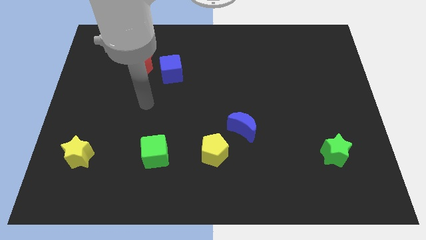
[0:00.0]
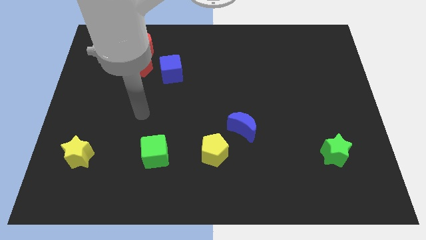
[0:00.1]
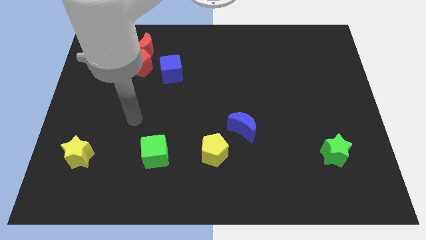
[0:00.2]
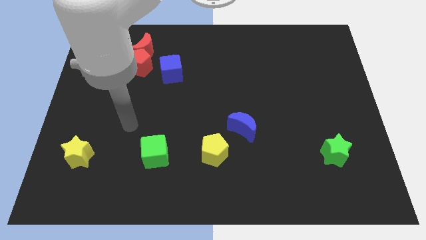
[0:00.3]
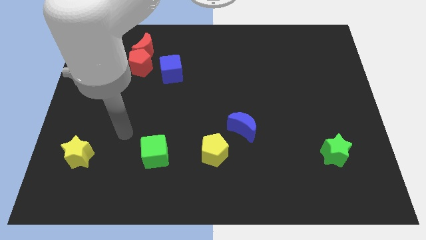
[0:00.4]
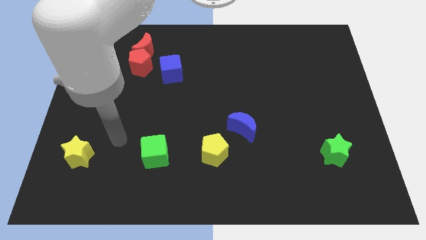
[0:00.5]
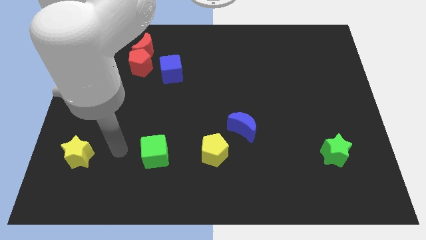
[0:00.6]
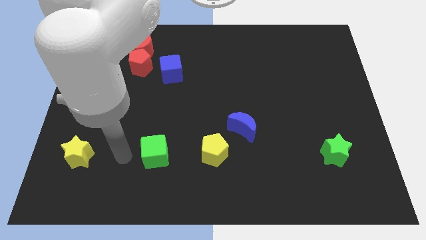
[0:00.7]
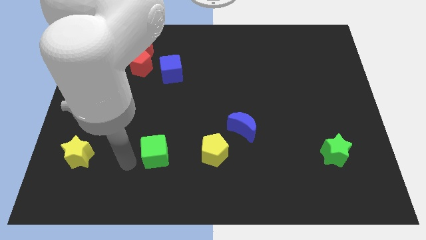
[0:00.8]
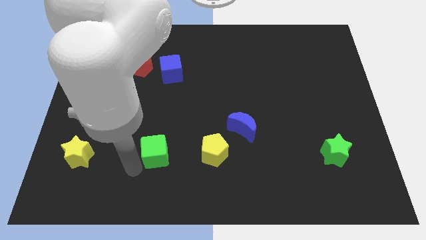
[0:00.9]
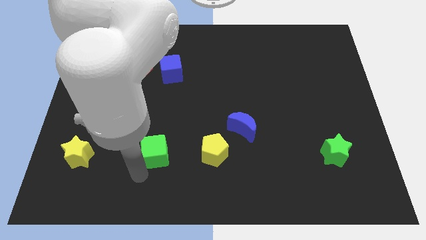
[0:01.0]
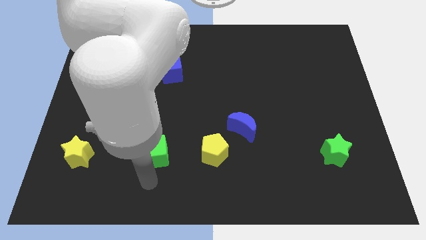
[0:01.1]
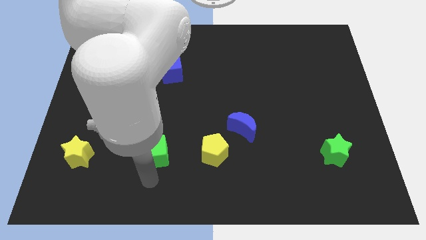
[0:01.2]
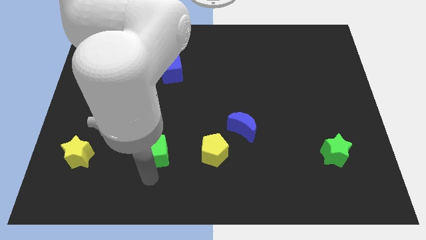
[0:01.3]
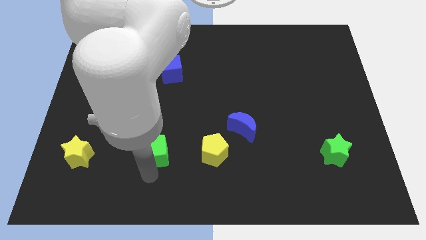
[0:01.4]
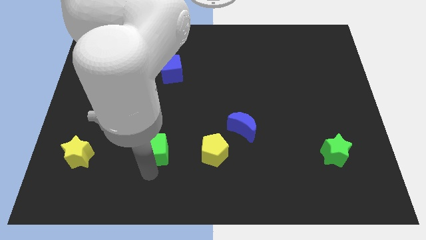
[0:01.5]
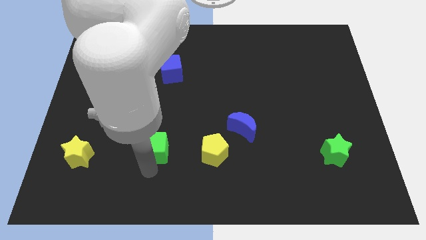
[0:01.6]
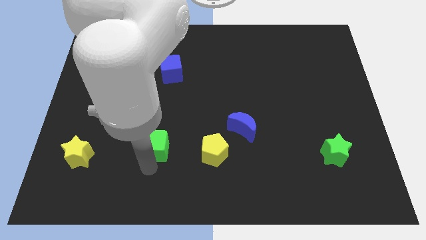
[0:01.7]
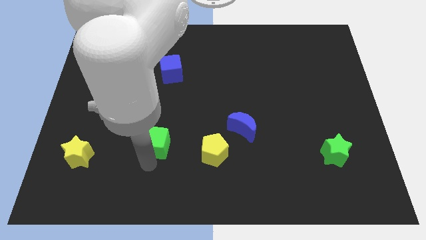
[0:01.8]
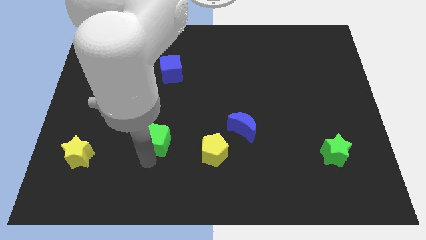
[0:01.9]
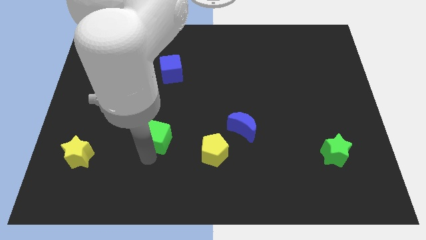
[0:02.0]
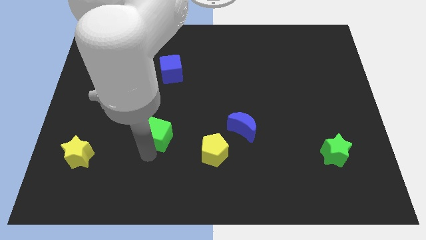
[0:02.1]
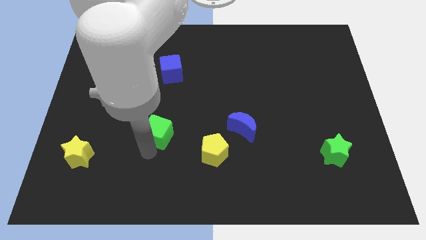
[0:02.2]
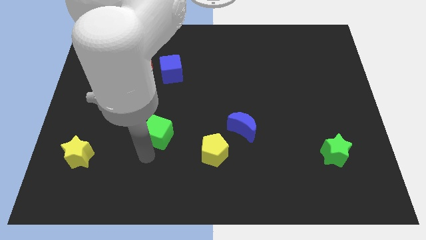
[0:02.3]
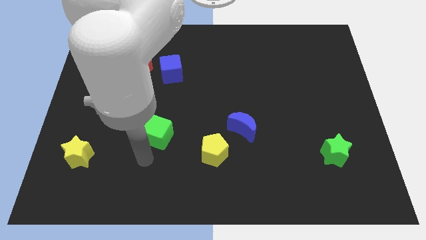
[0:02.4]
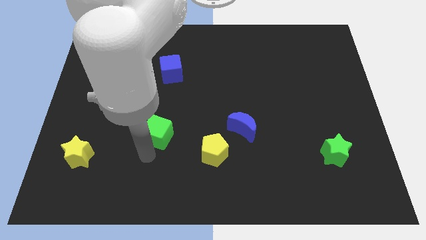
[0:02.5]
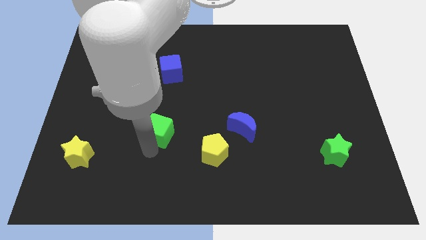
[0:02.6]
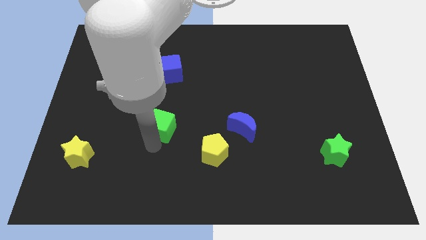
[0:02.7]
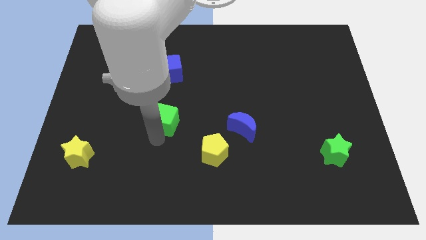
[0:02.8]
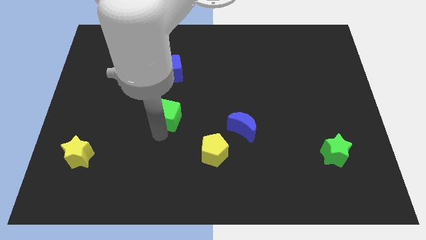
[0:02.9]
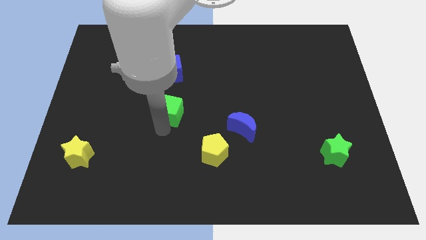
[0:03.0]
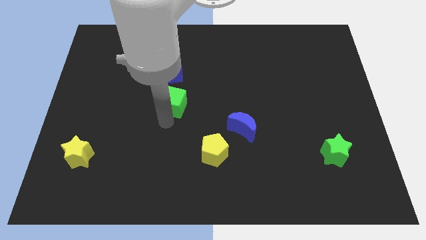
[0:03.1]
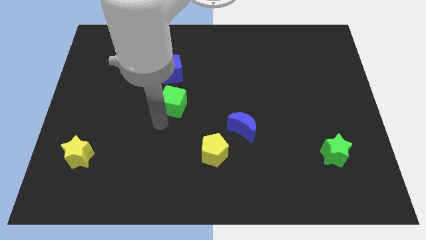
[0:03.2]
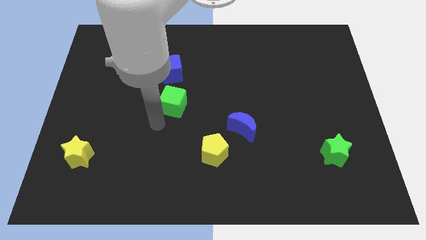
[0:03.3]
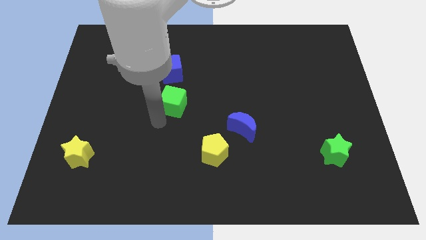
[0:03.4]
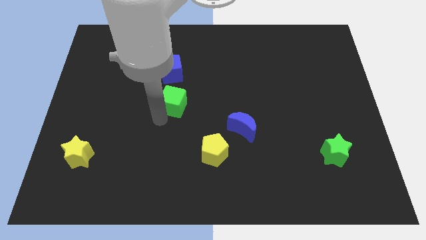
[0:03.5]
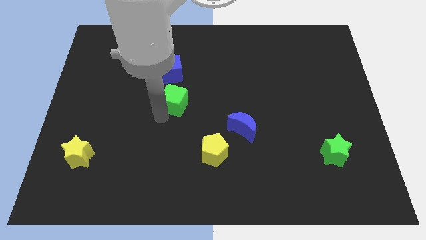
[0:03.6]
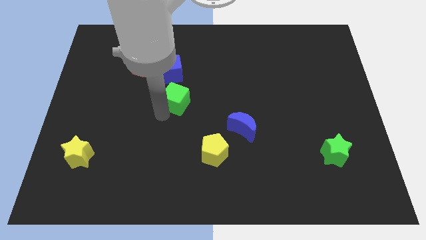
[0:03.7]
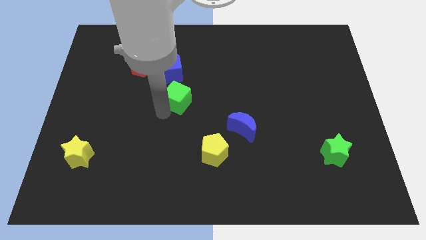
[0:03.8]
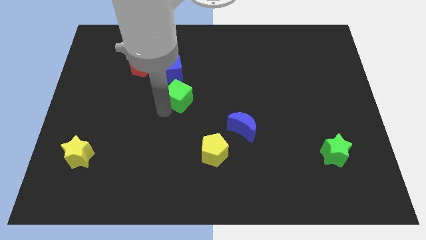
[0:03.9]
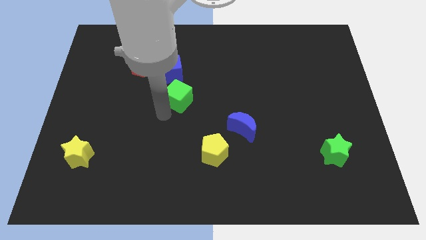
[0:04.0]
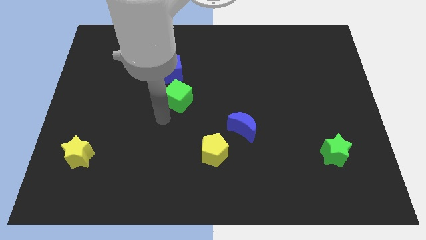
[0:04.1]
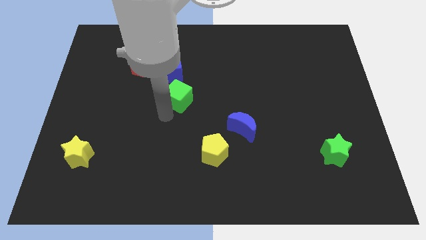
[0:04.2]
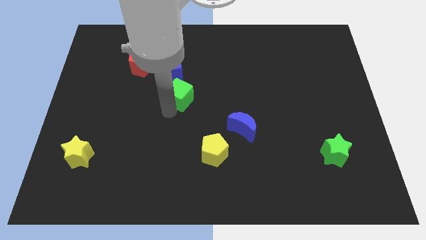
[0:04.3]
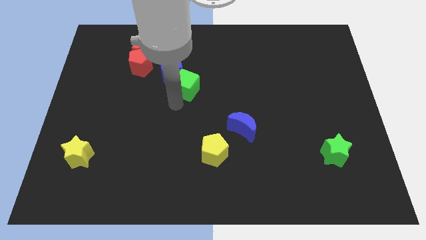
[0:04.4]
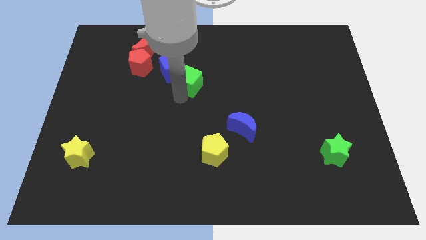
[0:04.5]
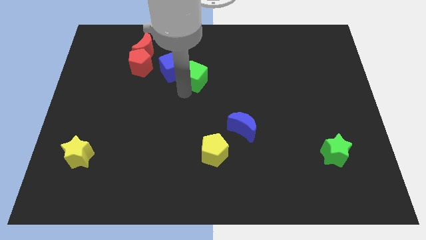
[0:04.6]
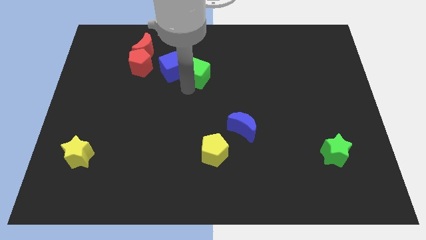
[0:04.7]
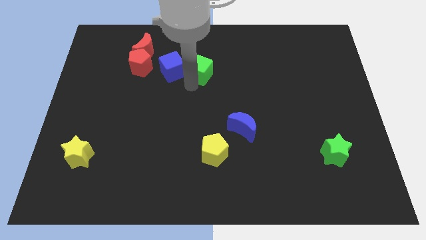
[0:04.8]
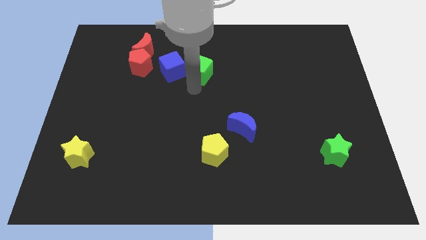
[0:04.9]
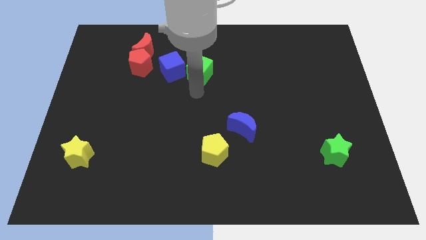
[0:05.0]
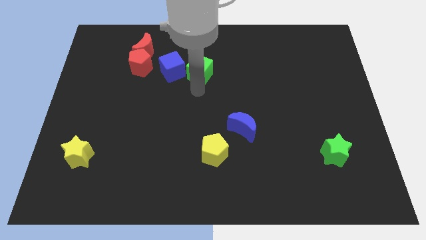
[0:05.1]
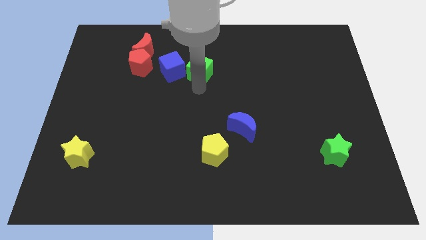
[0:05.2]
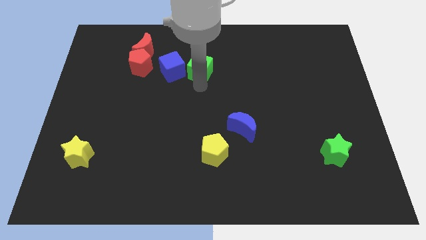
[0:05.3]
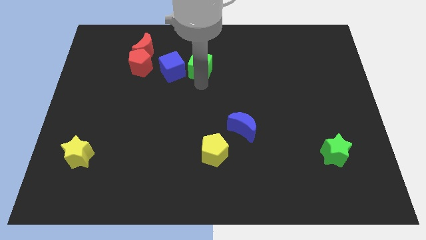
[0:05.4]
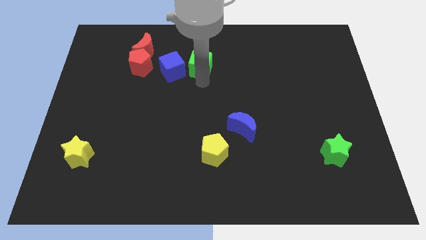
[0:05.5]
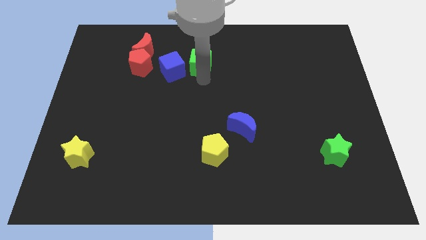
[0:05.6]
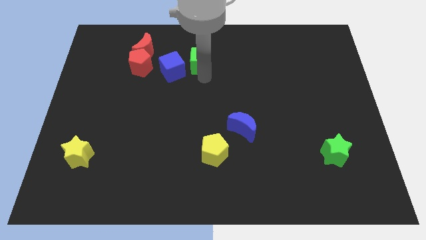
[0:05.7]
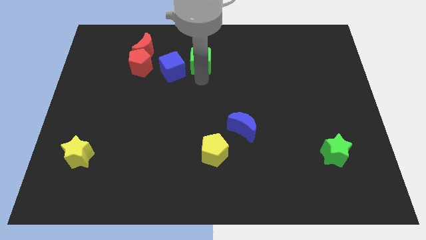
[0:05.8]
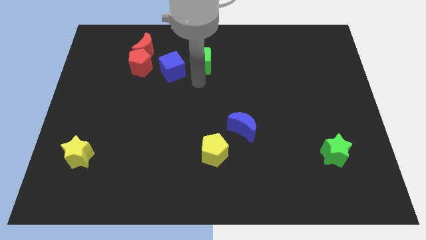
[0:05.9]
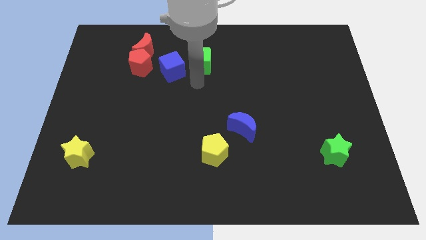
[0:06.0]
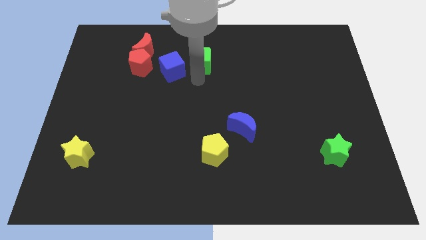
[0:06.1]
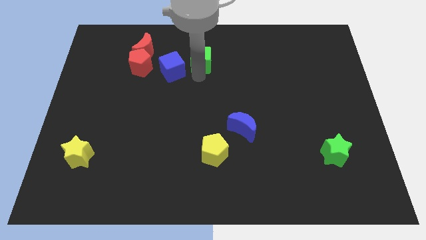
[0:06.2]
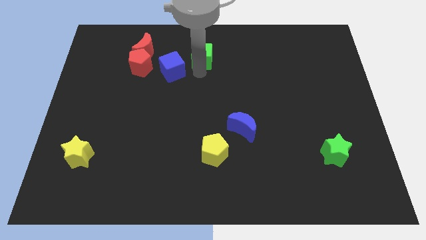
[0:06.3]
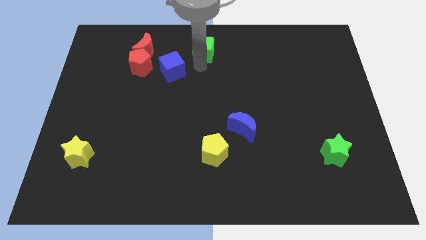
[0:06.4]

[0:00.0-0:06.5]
put the green cube to the towards your base

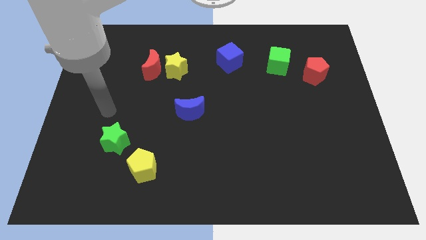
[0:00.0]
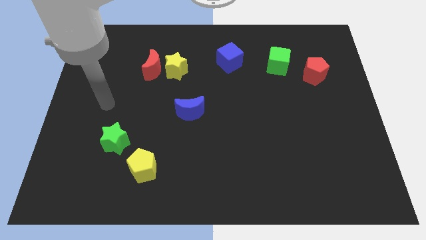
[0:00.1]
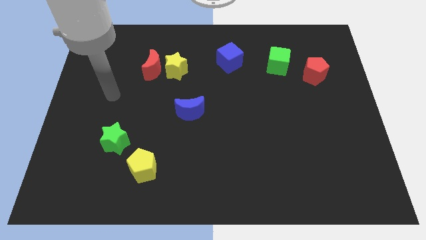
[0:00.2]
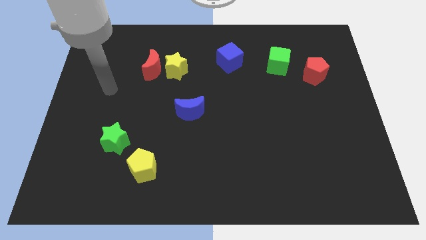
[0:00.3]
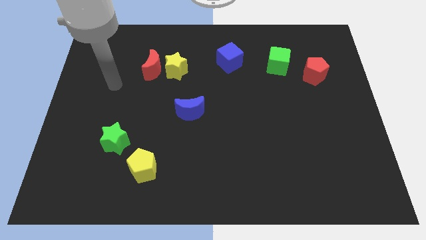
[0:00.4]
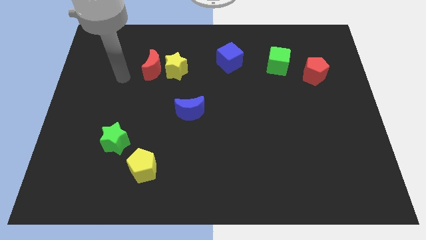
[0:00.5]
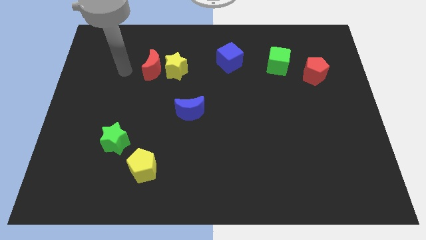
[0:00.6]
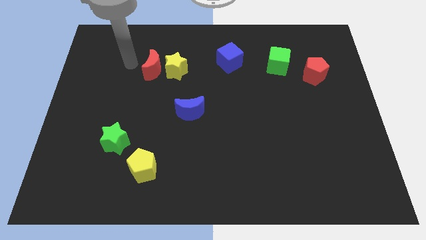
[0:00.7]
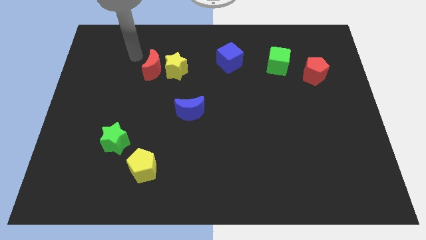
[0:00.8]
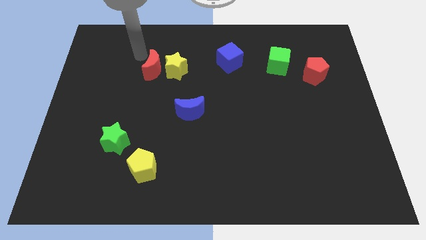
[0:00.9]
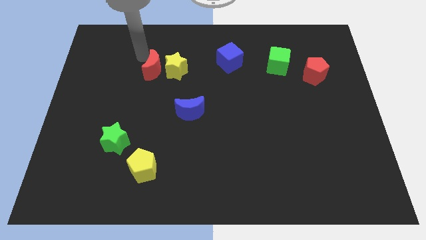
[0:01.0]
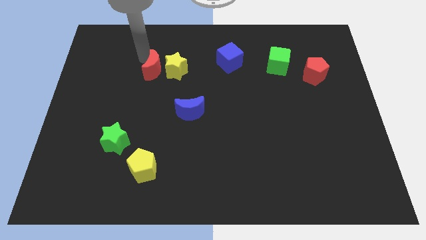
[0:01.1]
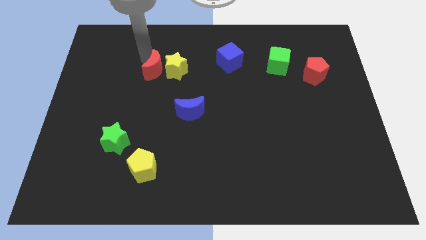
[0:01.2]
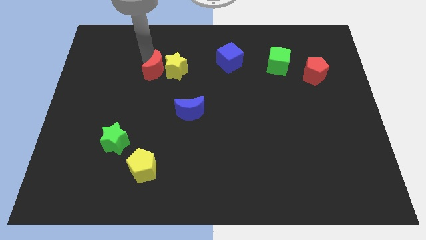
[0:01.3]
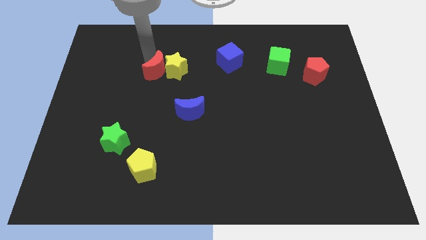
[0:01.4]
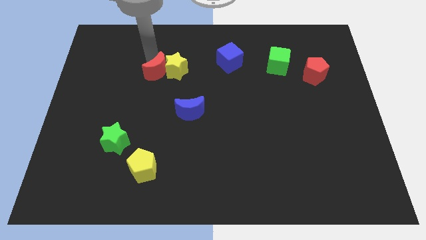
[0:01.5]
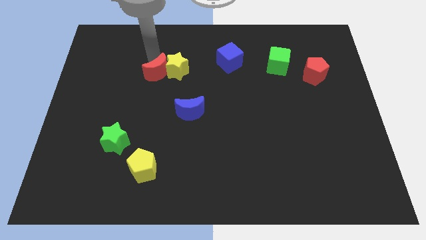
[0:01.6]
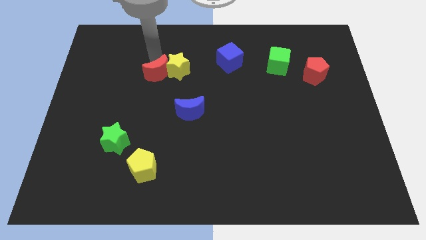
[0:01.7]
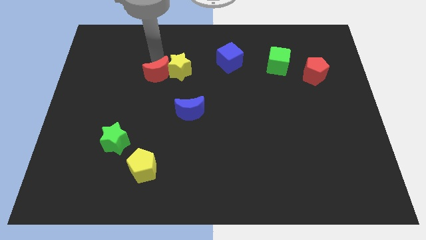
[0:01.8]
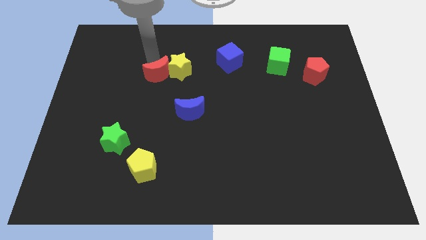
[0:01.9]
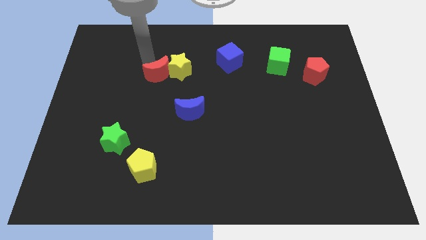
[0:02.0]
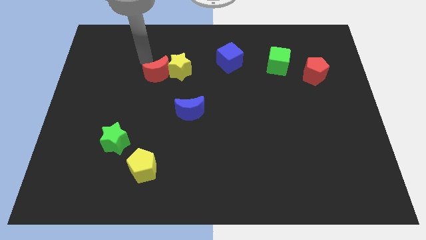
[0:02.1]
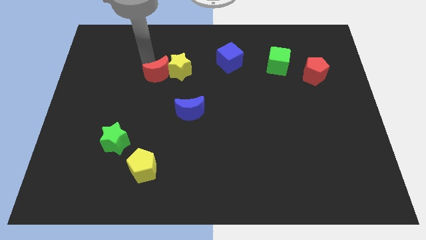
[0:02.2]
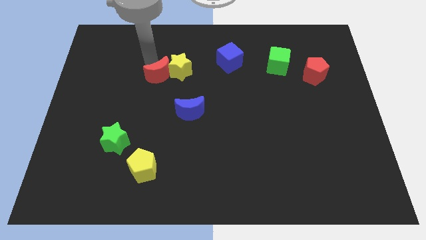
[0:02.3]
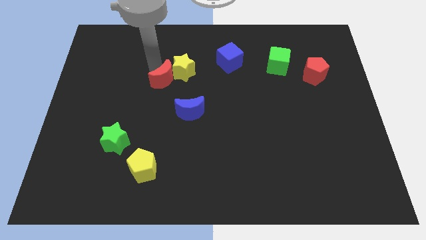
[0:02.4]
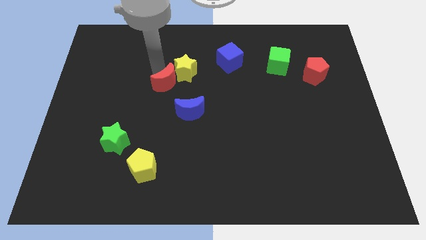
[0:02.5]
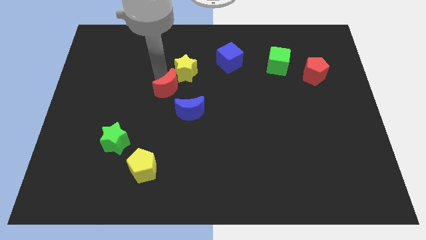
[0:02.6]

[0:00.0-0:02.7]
slide the red moon to the center of the board
